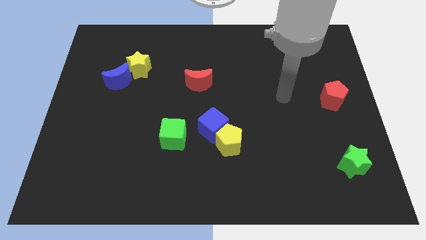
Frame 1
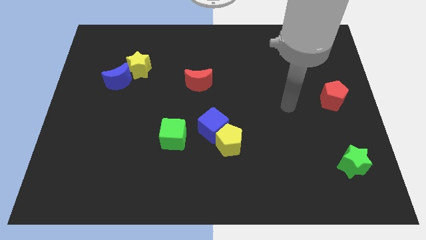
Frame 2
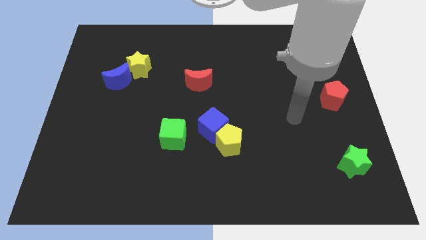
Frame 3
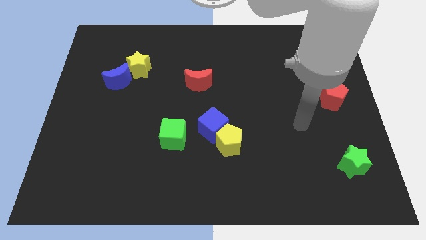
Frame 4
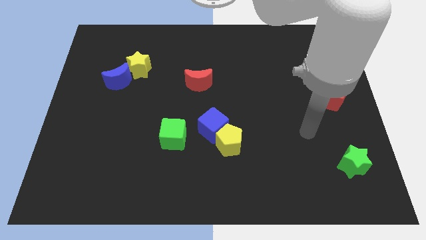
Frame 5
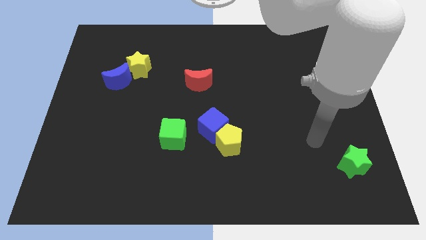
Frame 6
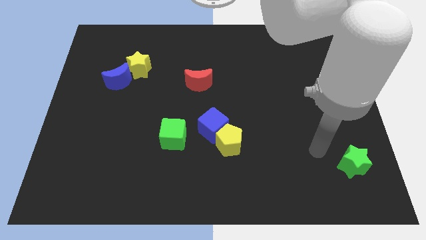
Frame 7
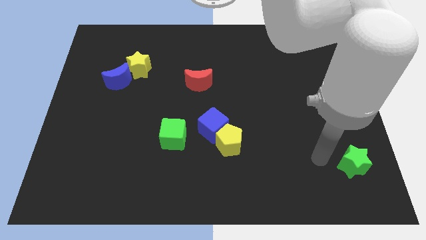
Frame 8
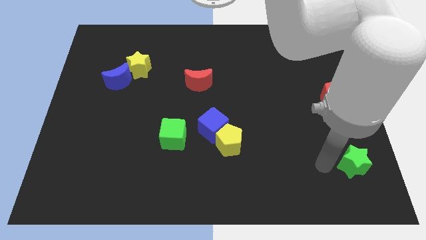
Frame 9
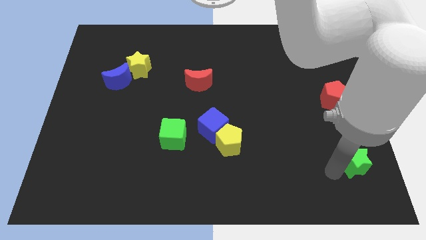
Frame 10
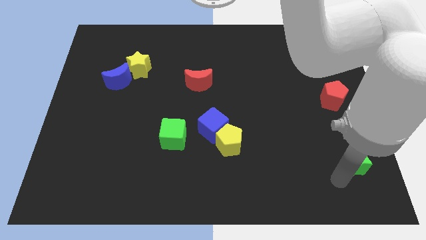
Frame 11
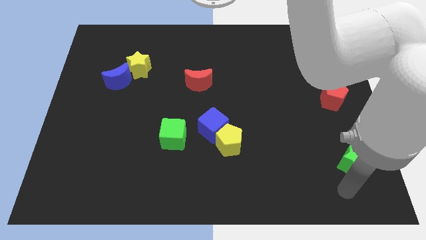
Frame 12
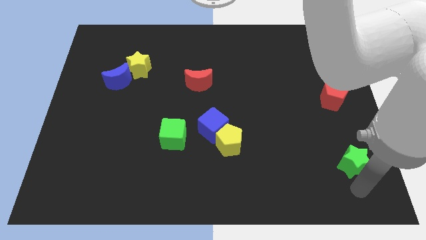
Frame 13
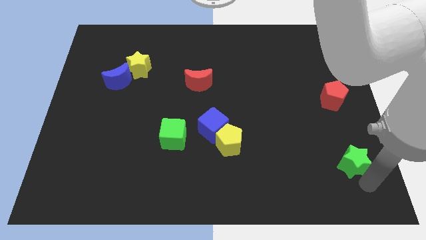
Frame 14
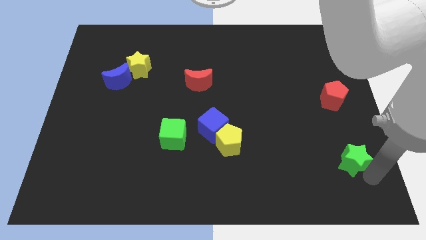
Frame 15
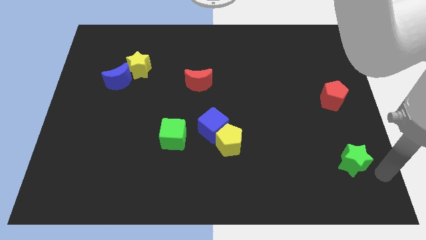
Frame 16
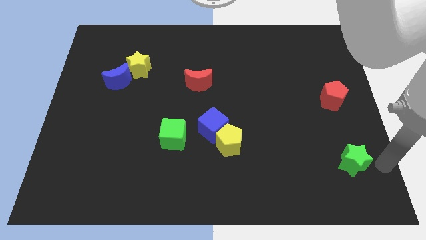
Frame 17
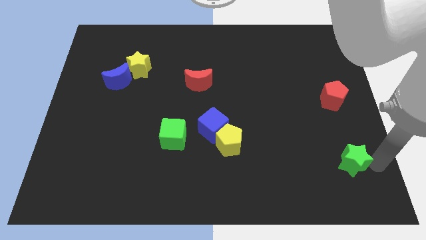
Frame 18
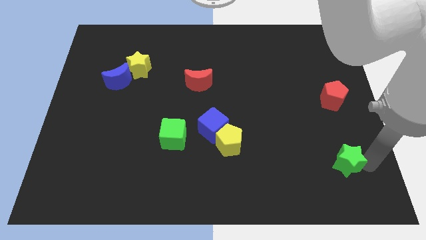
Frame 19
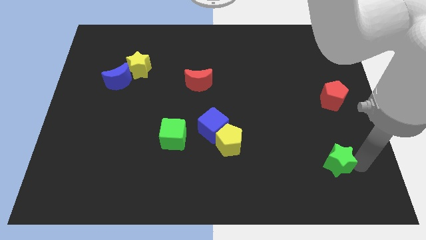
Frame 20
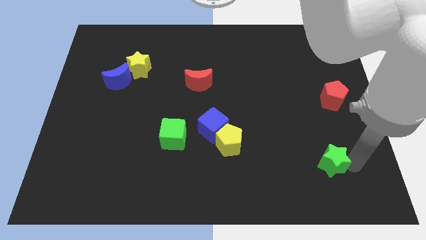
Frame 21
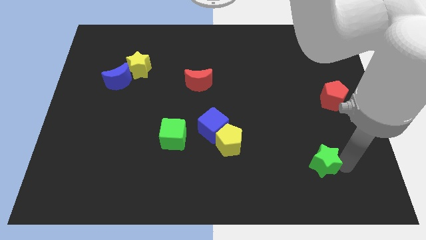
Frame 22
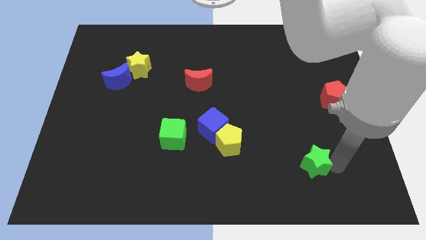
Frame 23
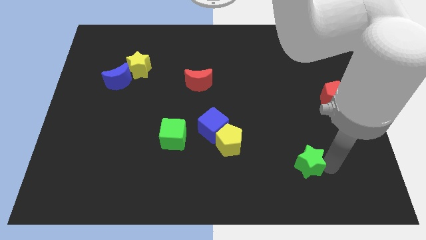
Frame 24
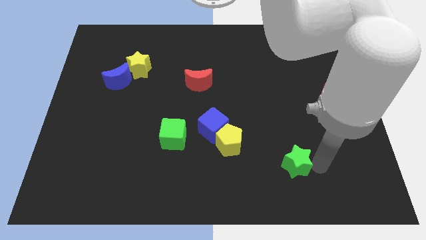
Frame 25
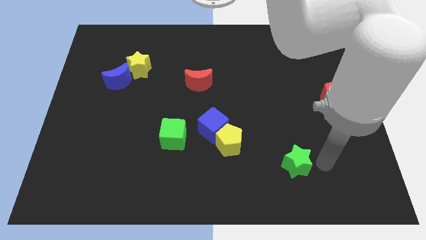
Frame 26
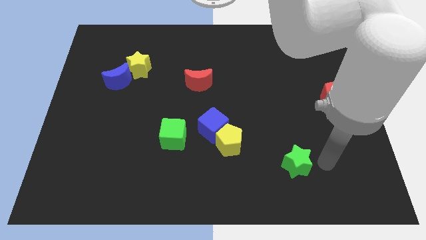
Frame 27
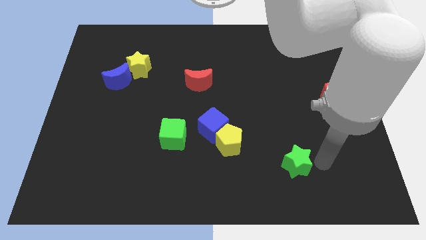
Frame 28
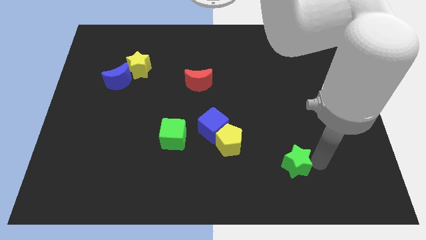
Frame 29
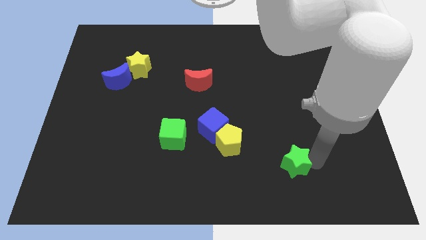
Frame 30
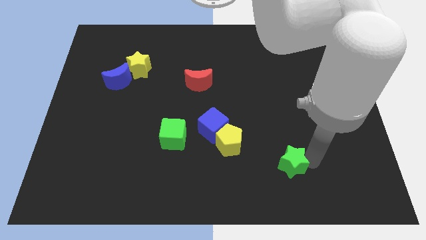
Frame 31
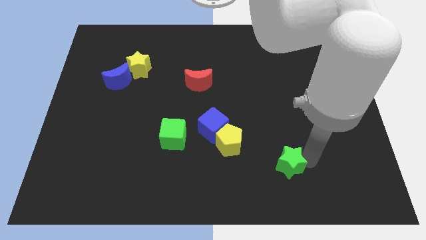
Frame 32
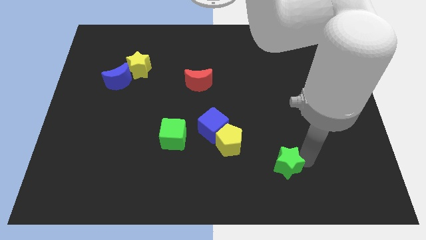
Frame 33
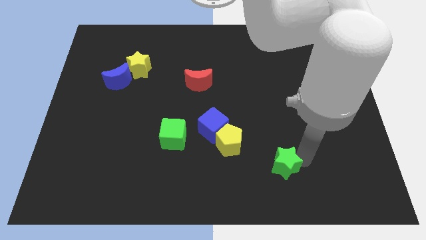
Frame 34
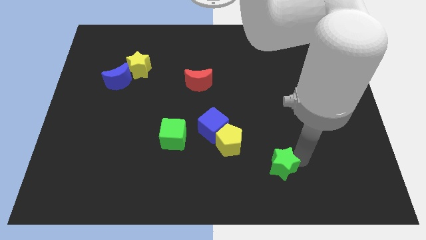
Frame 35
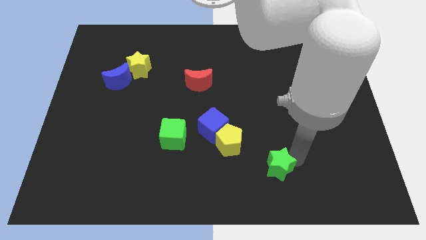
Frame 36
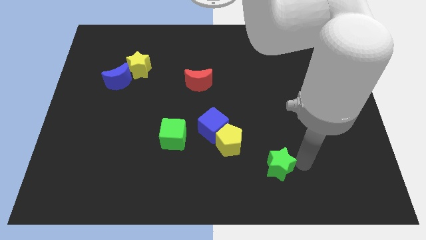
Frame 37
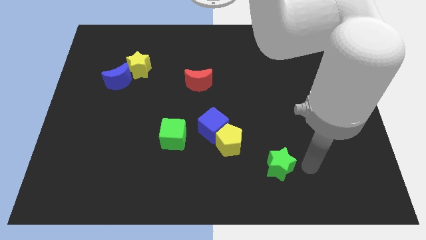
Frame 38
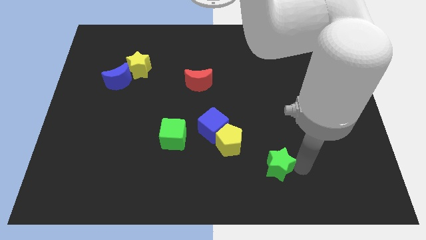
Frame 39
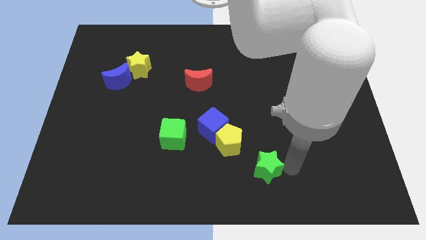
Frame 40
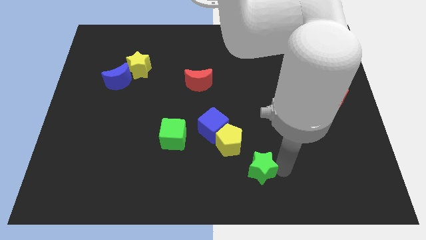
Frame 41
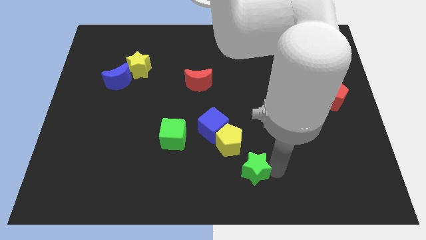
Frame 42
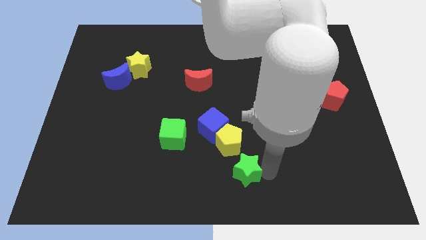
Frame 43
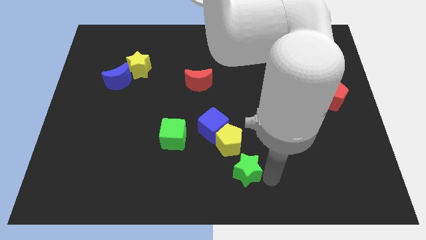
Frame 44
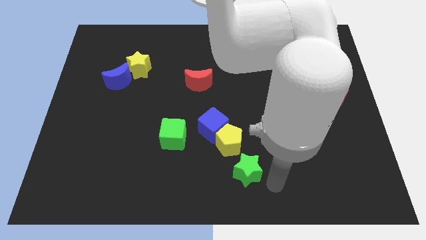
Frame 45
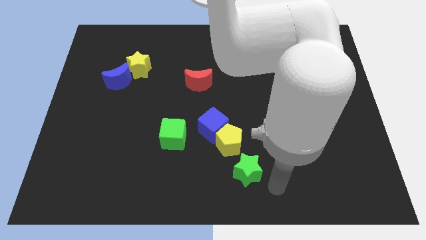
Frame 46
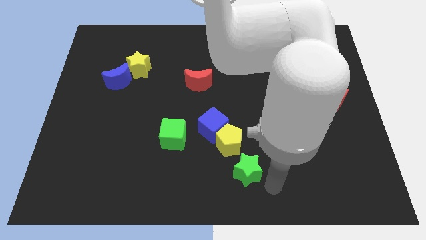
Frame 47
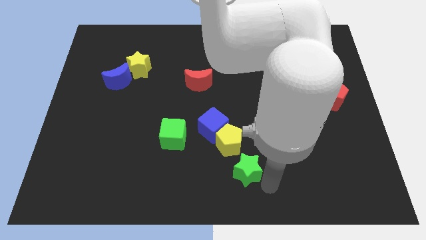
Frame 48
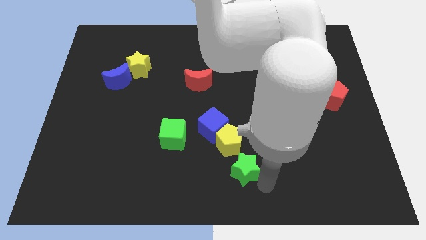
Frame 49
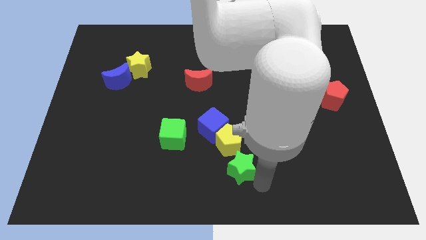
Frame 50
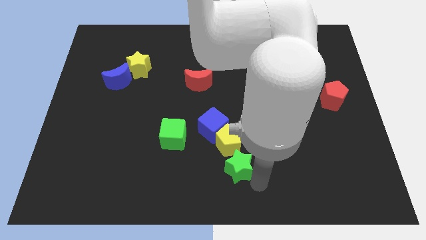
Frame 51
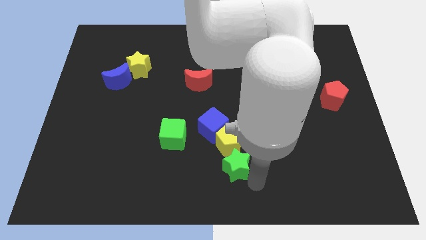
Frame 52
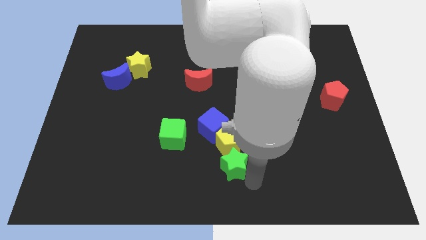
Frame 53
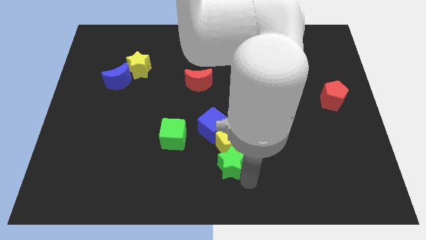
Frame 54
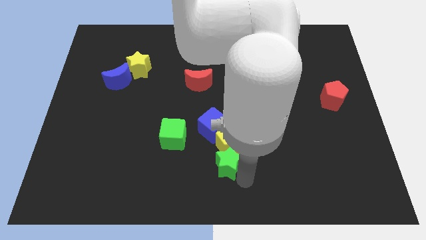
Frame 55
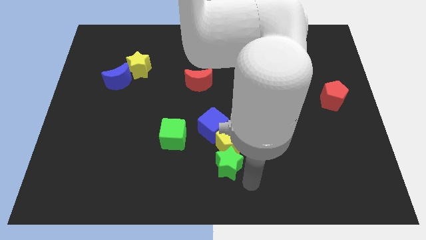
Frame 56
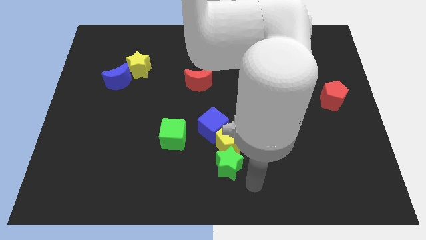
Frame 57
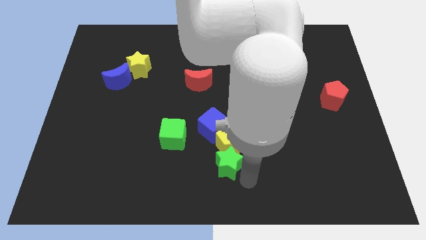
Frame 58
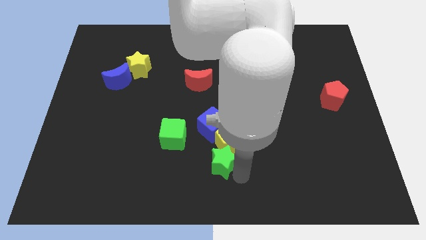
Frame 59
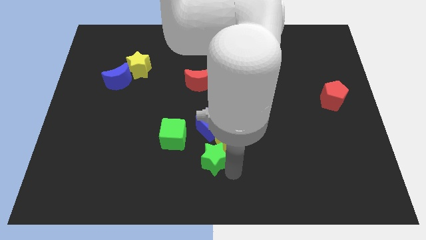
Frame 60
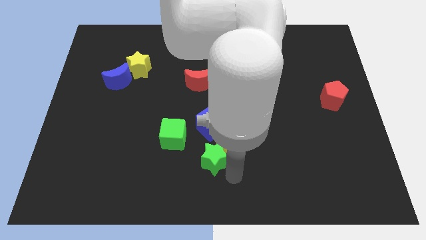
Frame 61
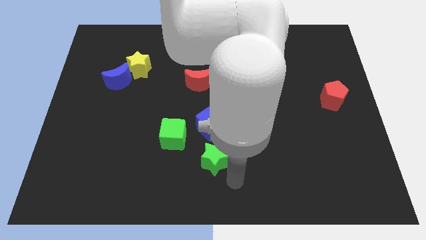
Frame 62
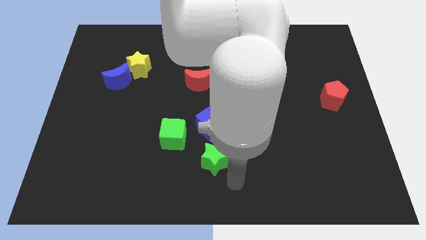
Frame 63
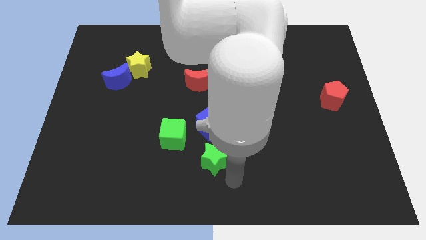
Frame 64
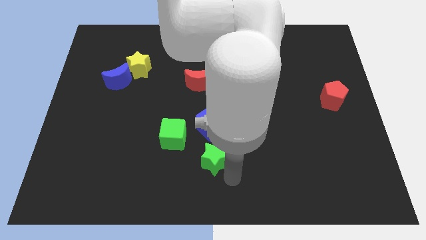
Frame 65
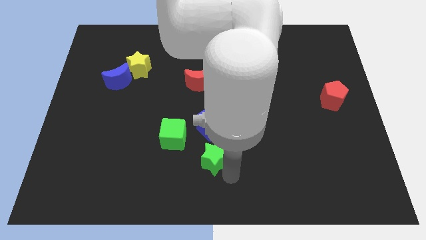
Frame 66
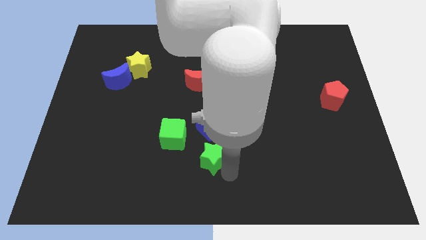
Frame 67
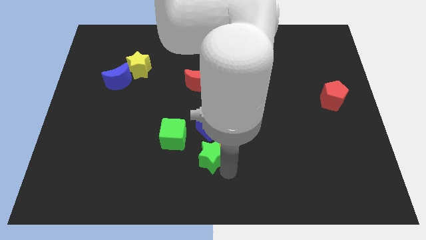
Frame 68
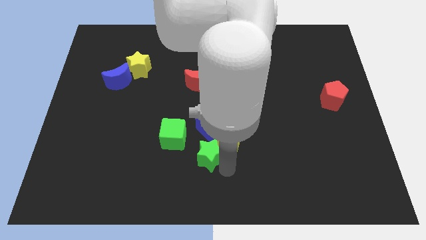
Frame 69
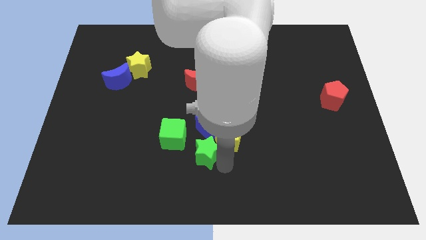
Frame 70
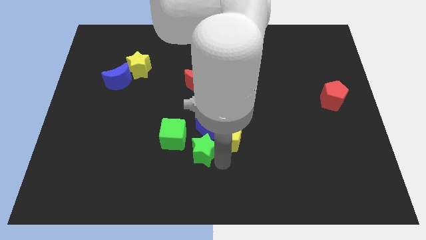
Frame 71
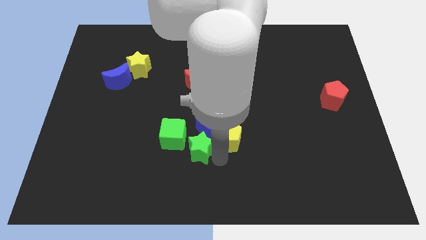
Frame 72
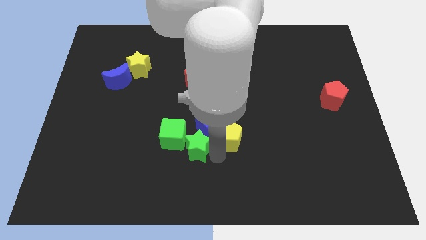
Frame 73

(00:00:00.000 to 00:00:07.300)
move the green star close to the green cube

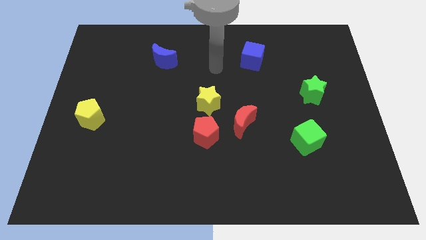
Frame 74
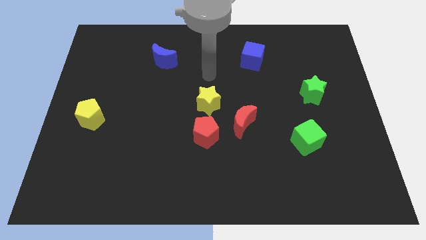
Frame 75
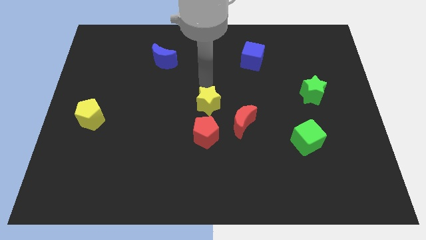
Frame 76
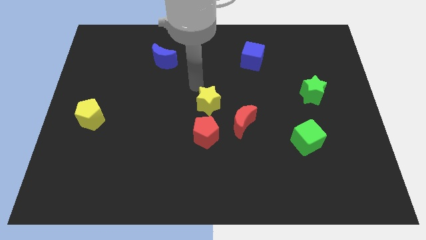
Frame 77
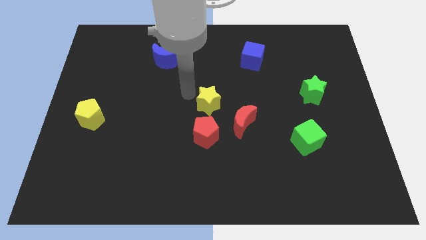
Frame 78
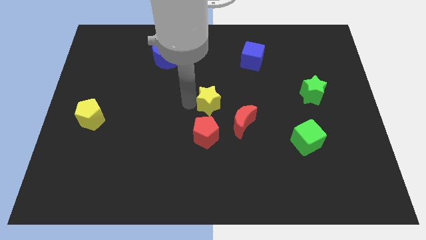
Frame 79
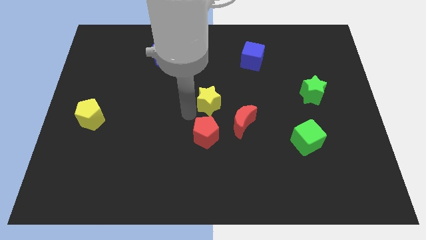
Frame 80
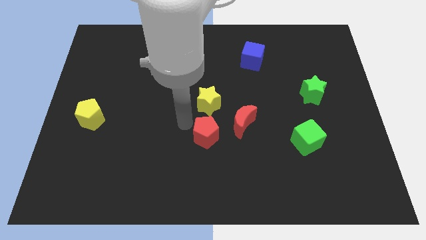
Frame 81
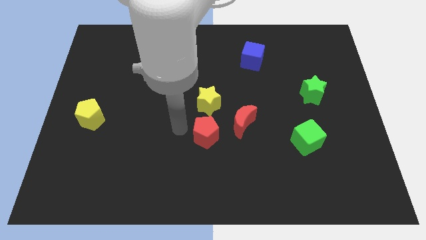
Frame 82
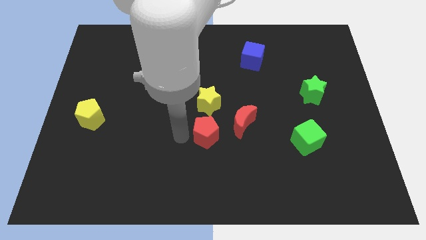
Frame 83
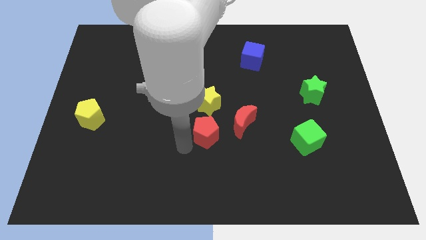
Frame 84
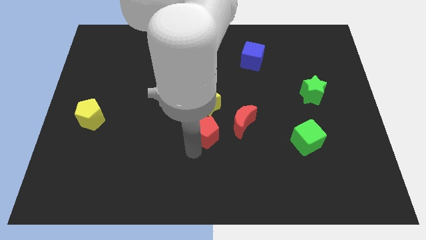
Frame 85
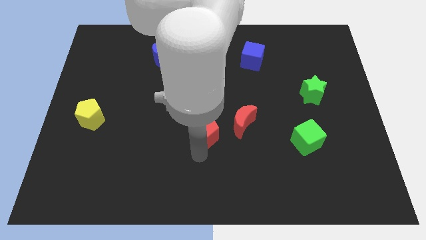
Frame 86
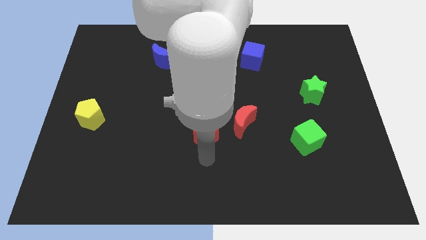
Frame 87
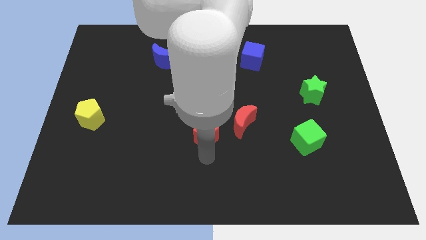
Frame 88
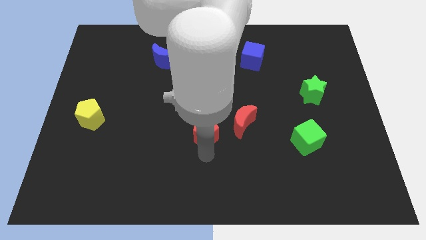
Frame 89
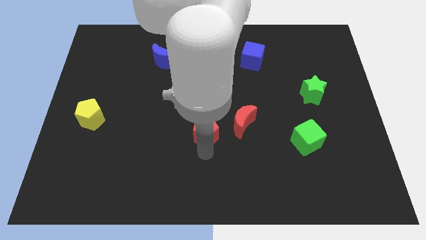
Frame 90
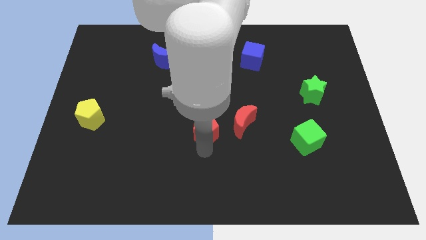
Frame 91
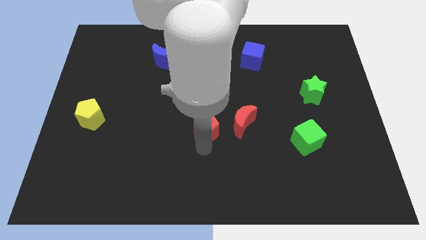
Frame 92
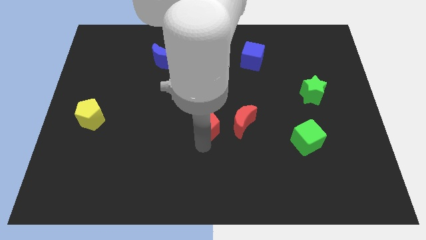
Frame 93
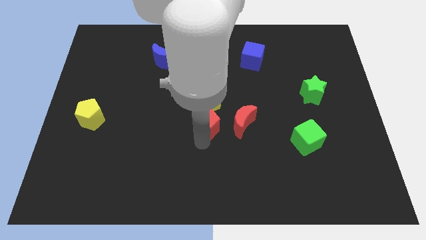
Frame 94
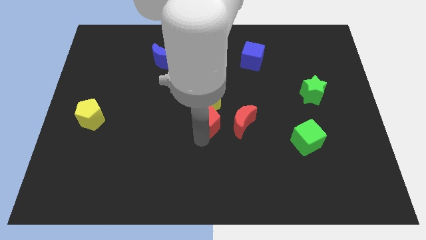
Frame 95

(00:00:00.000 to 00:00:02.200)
move the red pentagon towards the yellow star
